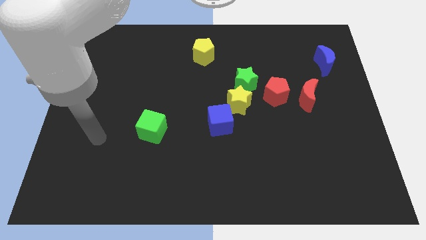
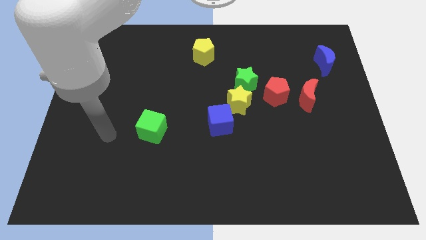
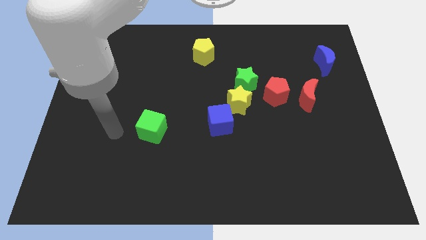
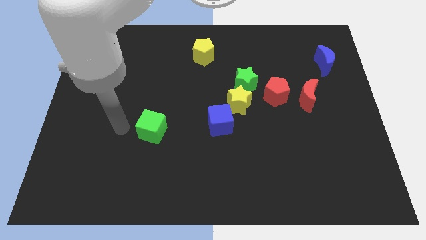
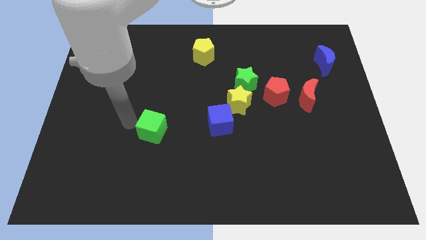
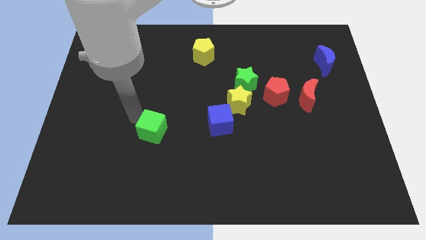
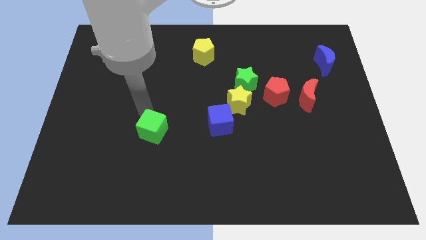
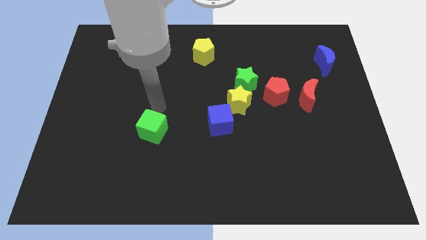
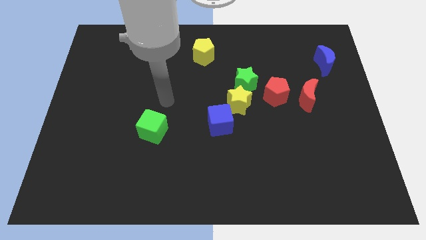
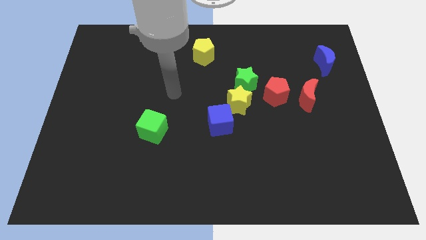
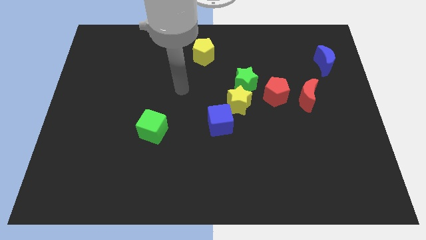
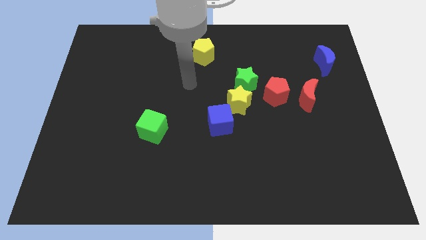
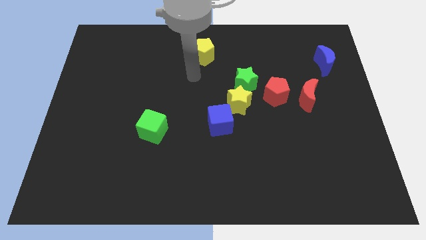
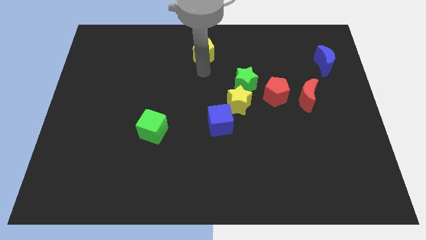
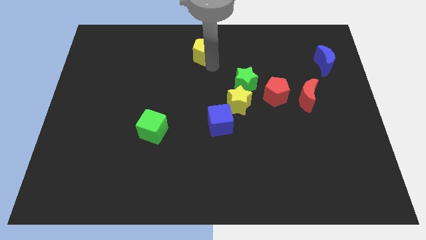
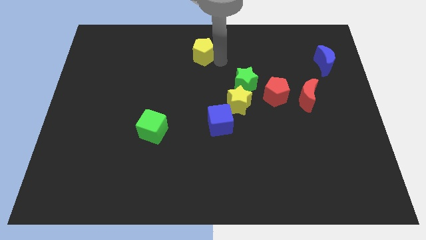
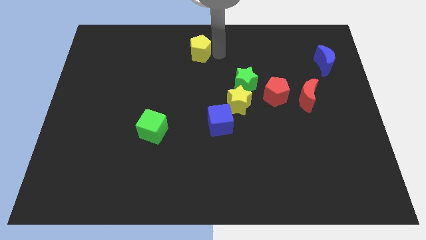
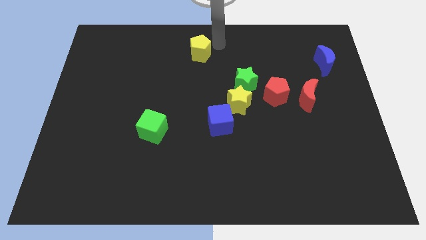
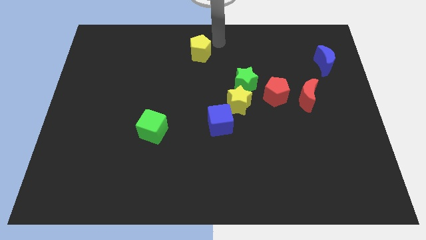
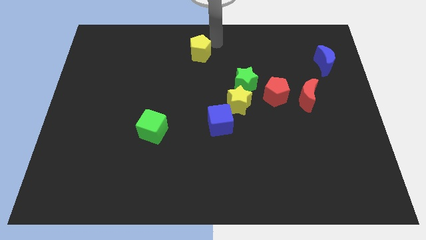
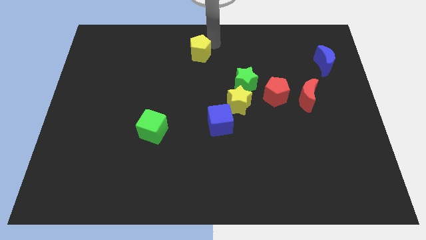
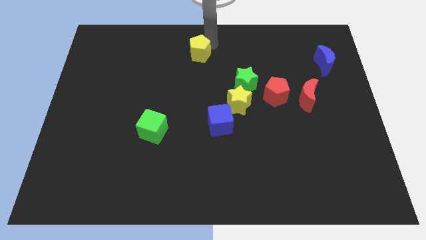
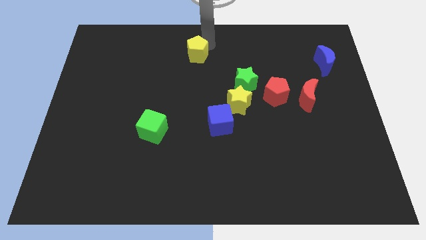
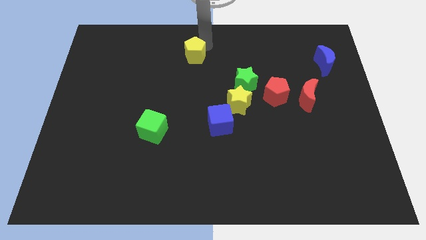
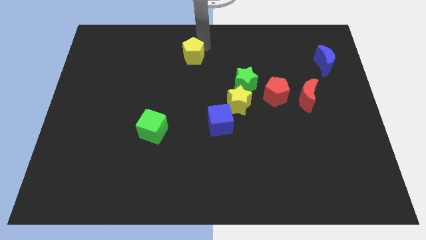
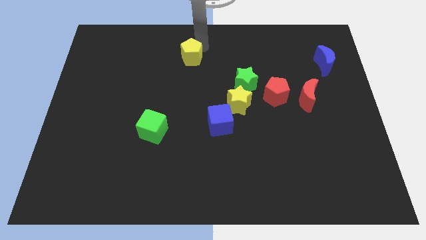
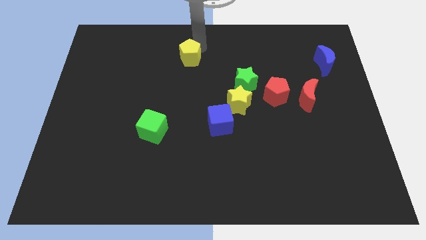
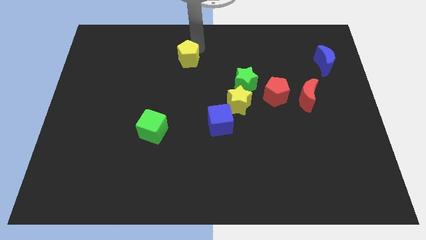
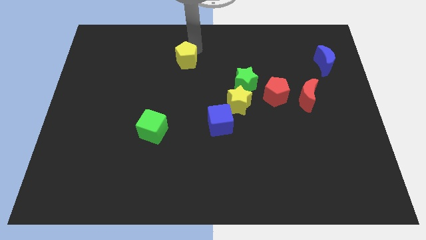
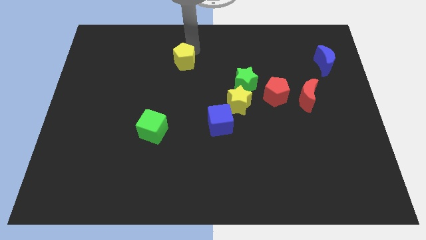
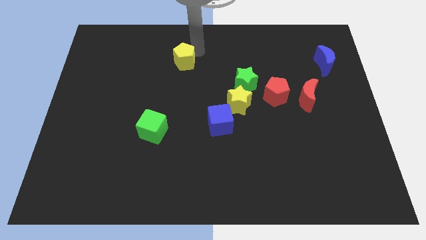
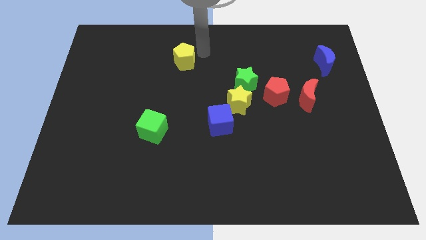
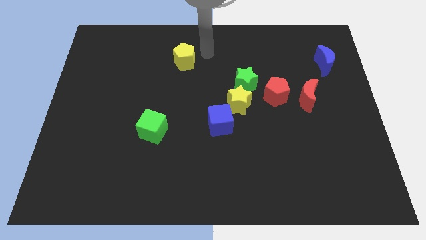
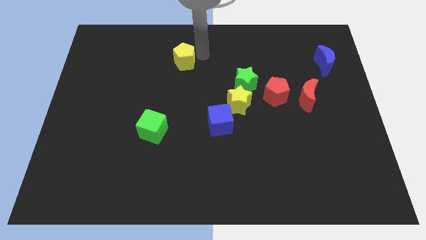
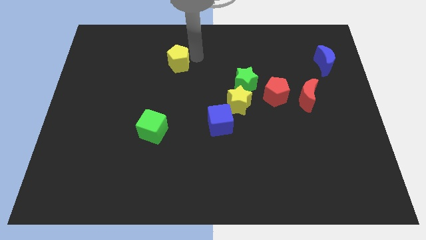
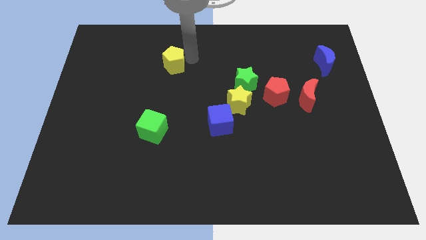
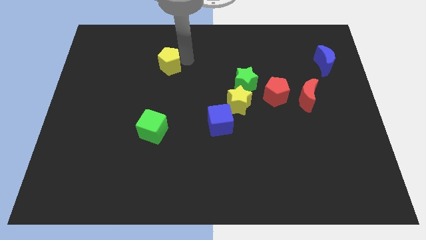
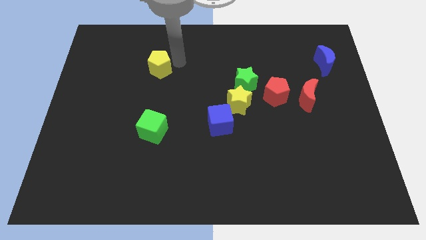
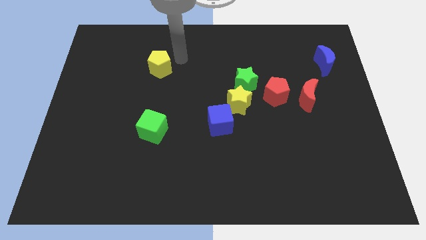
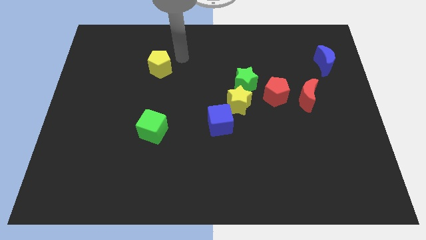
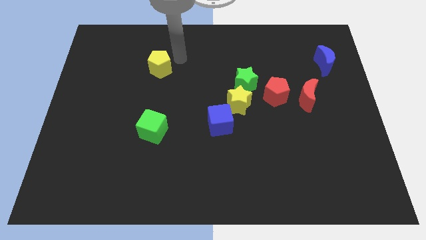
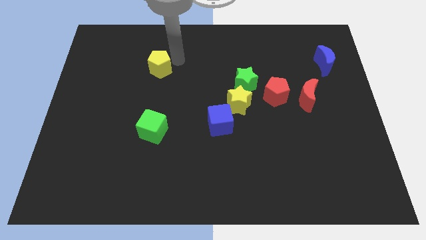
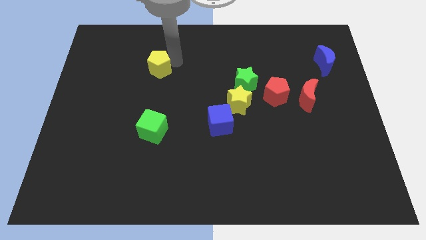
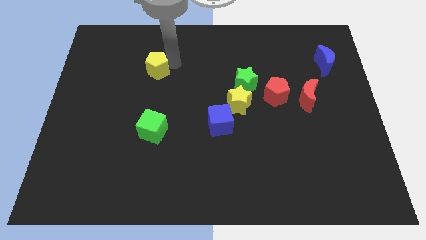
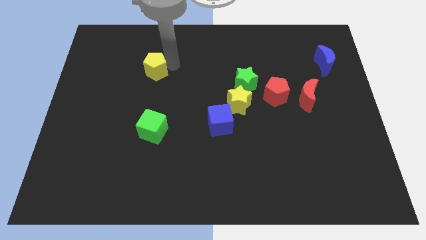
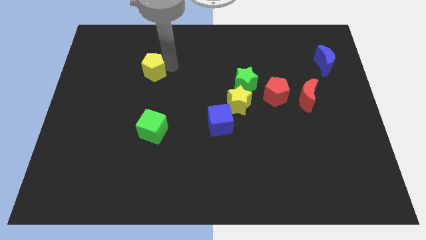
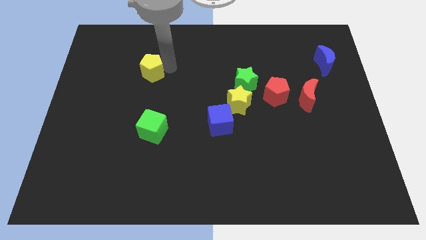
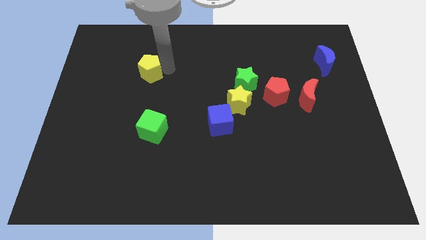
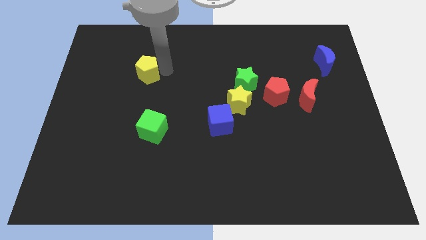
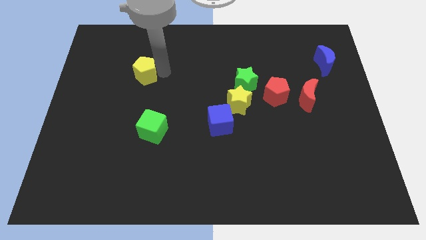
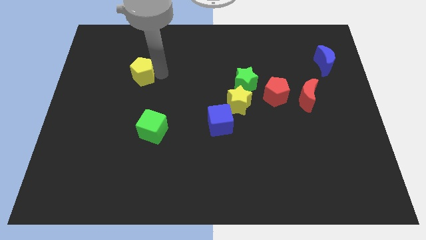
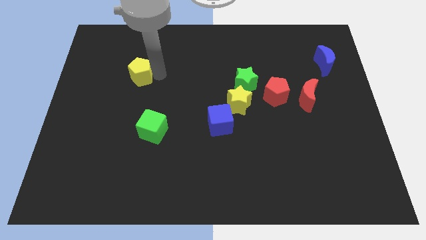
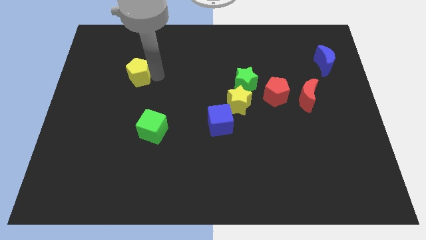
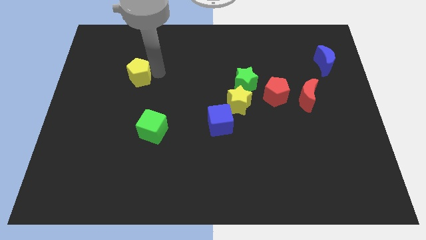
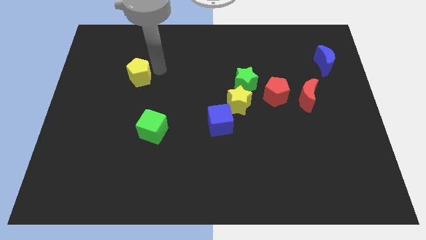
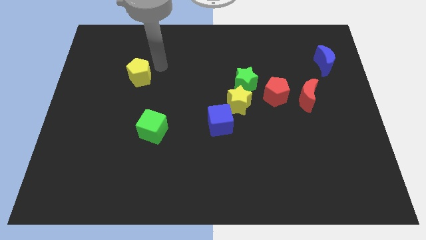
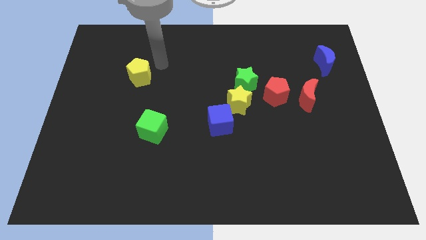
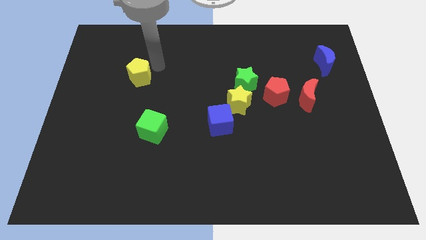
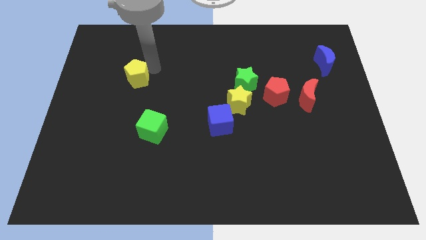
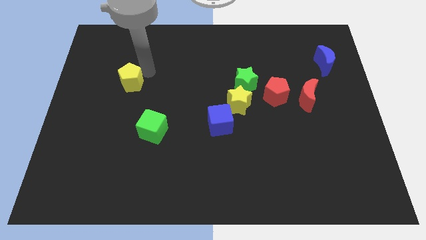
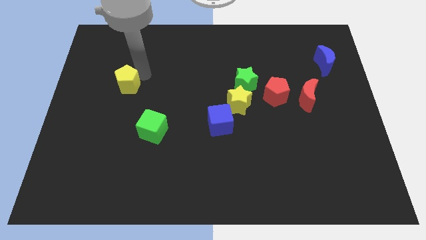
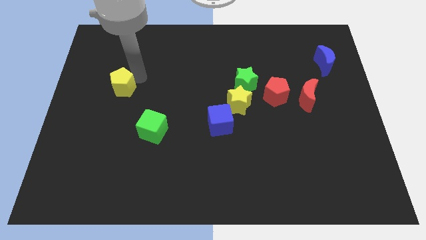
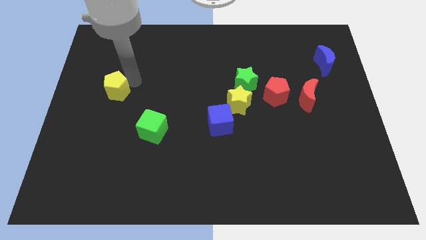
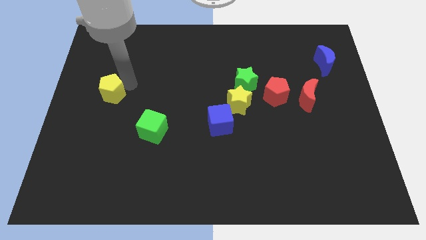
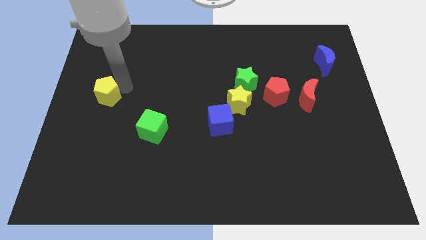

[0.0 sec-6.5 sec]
slide the yellow pentagon to the left side
